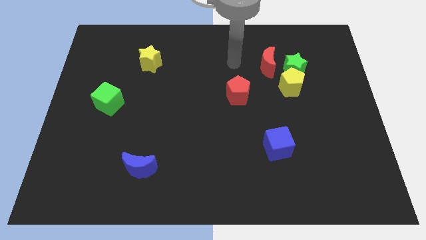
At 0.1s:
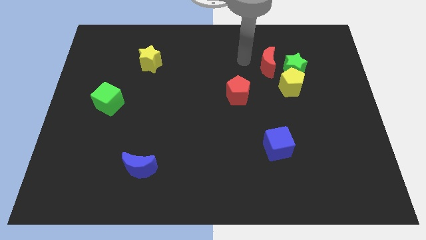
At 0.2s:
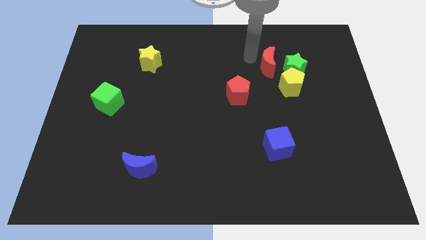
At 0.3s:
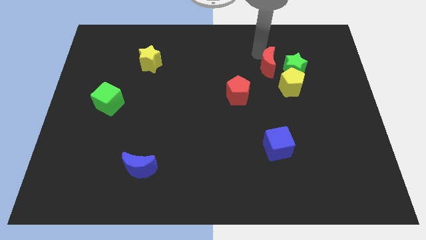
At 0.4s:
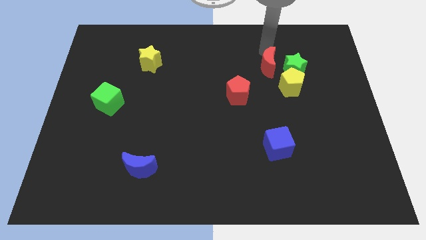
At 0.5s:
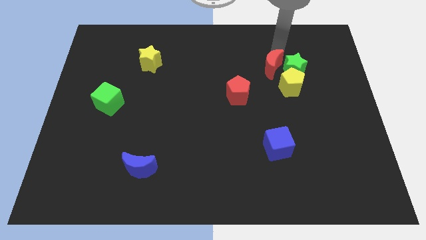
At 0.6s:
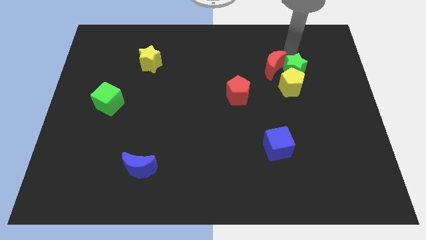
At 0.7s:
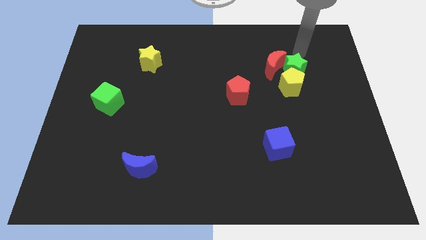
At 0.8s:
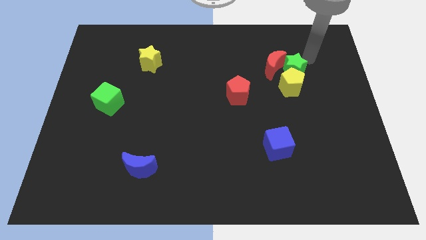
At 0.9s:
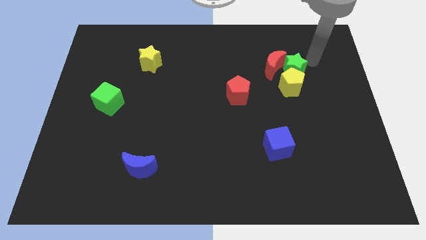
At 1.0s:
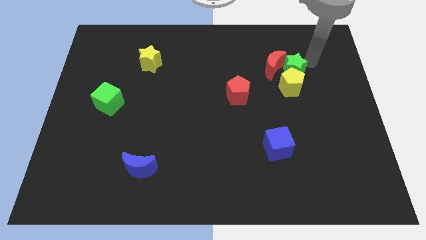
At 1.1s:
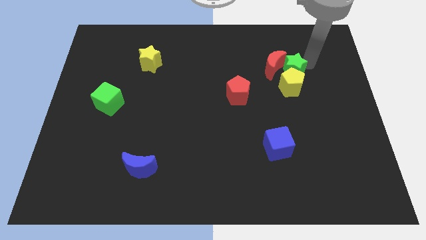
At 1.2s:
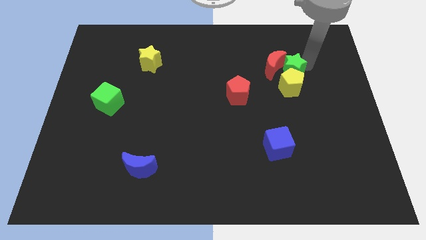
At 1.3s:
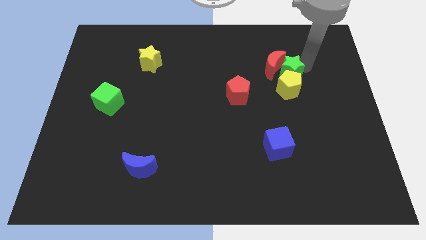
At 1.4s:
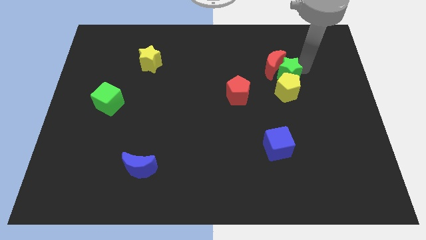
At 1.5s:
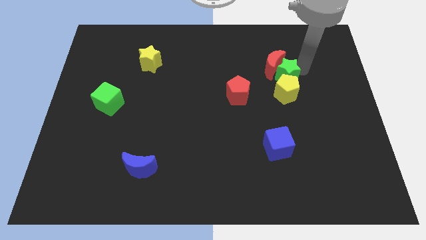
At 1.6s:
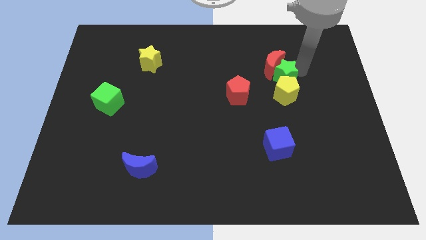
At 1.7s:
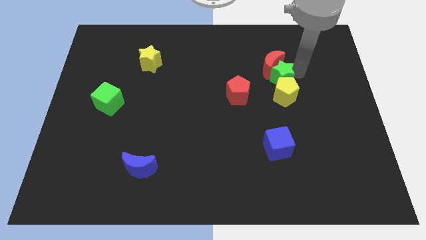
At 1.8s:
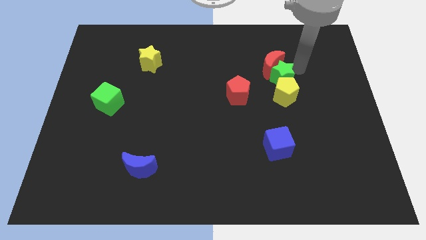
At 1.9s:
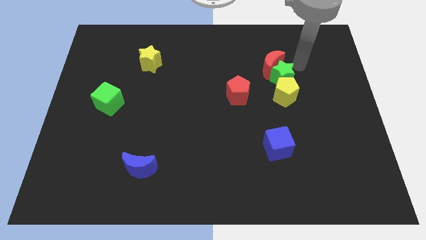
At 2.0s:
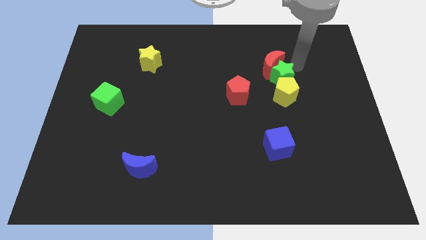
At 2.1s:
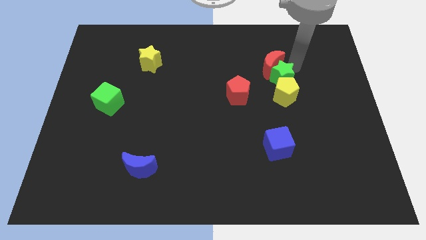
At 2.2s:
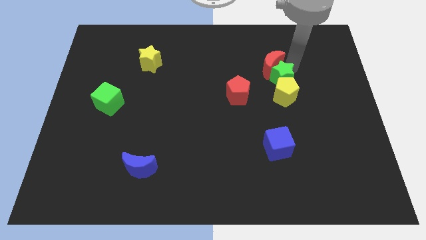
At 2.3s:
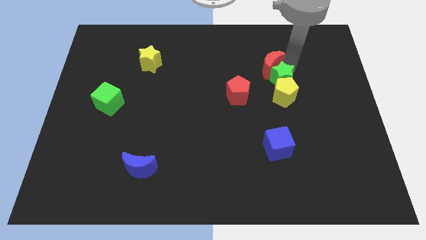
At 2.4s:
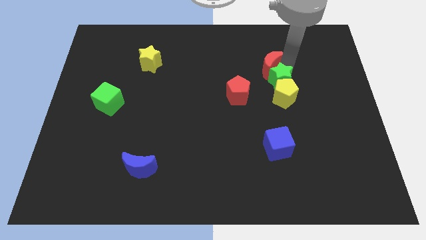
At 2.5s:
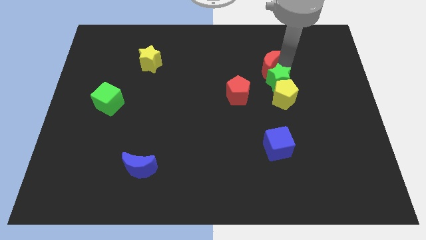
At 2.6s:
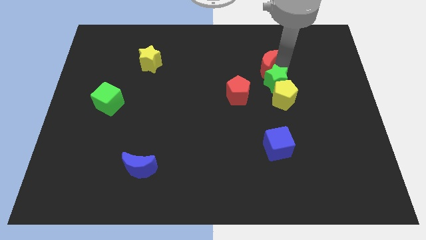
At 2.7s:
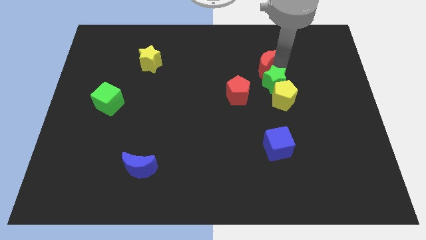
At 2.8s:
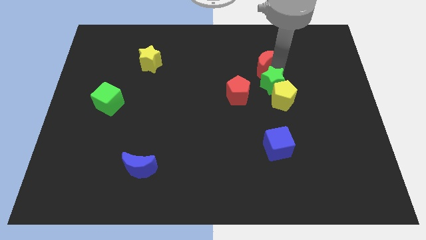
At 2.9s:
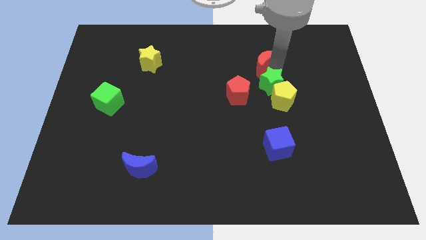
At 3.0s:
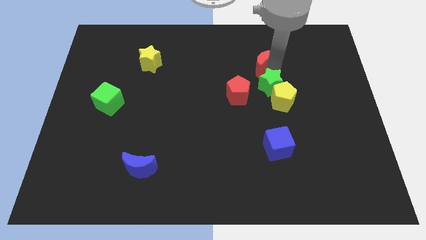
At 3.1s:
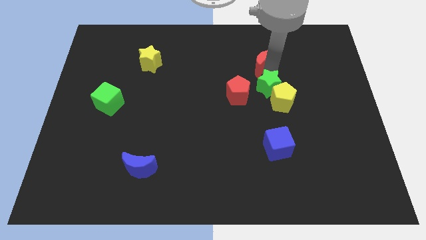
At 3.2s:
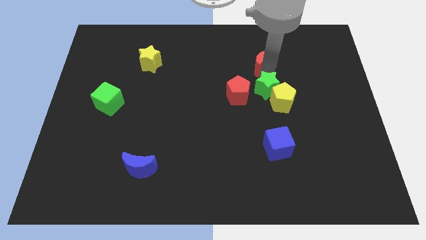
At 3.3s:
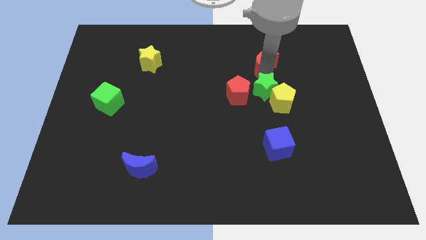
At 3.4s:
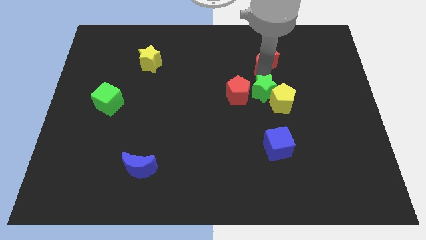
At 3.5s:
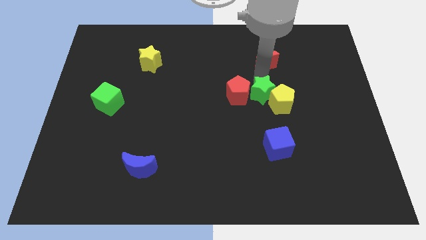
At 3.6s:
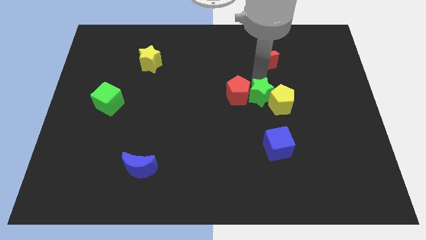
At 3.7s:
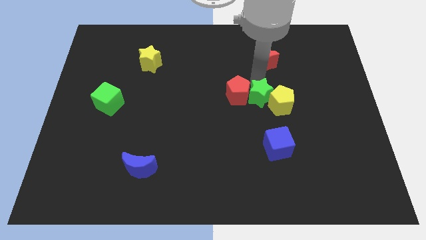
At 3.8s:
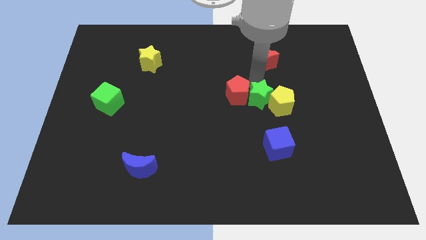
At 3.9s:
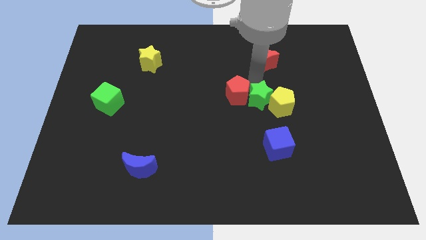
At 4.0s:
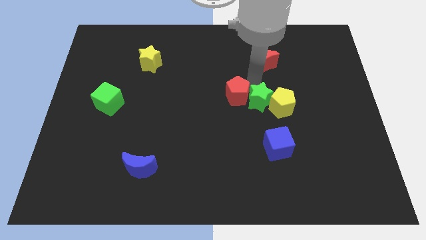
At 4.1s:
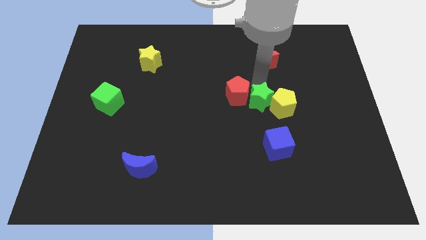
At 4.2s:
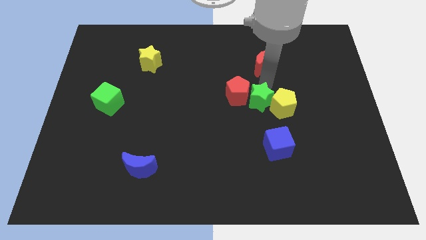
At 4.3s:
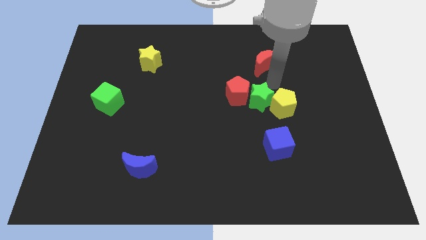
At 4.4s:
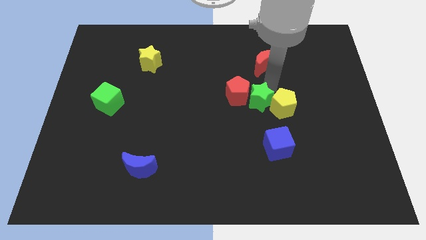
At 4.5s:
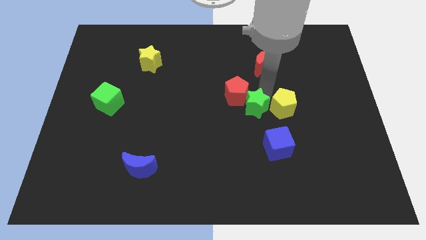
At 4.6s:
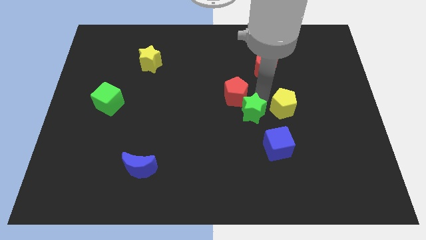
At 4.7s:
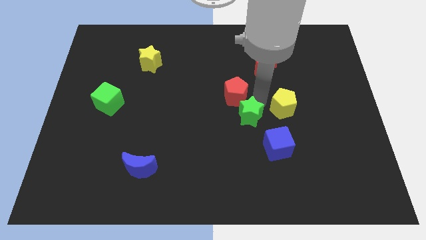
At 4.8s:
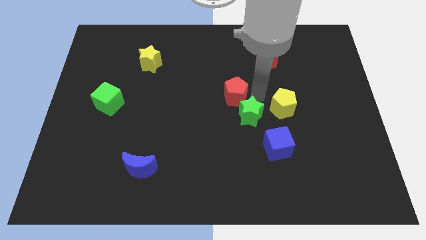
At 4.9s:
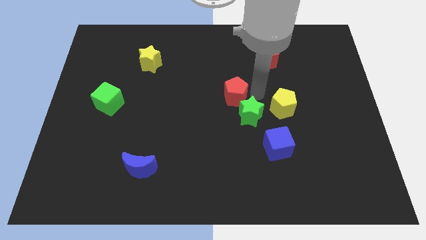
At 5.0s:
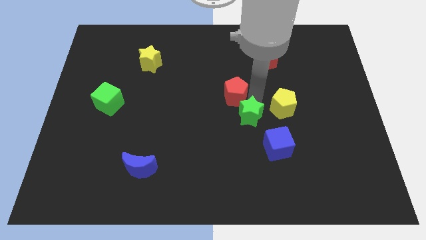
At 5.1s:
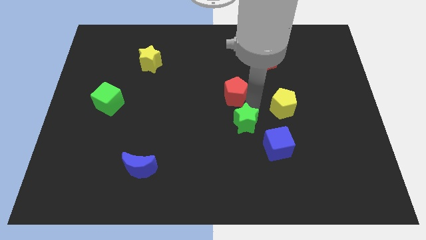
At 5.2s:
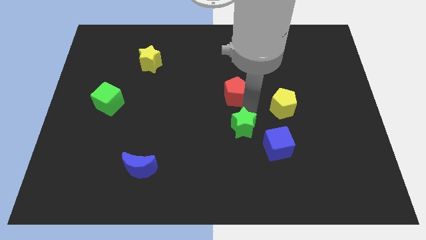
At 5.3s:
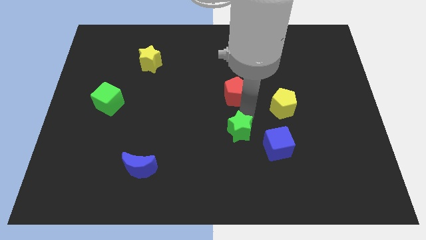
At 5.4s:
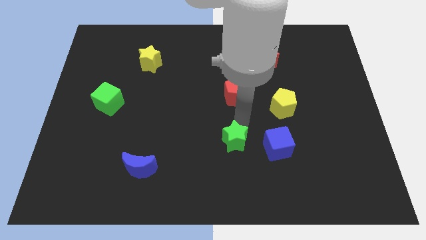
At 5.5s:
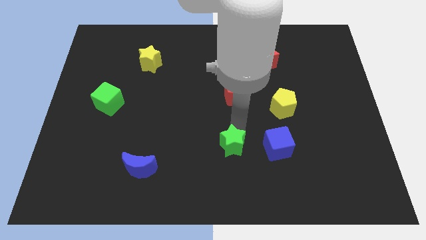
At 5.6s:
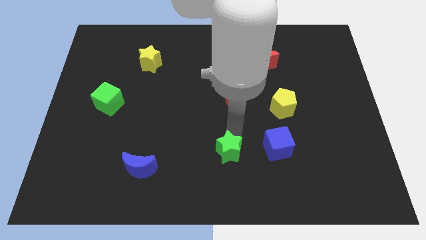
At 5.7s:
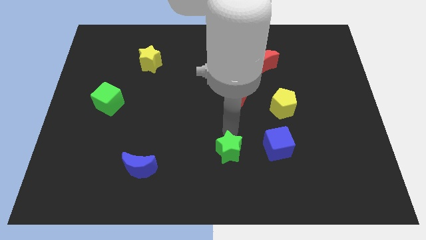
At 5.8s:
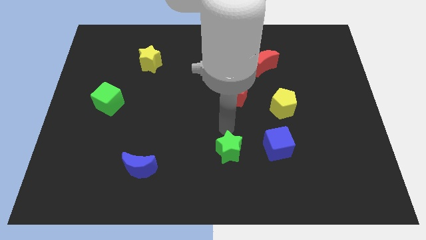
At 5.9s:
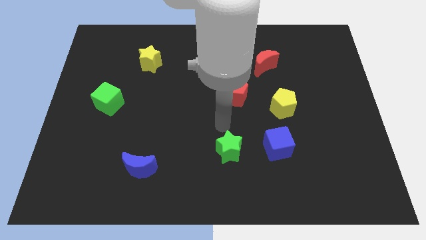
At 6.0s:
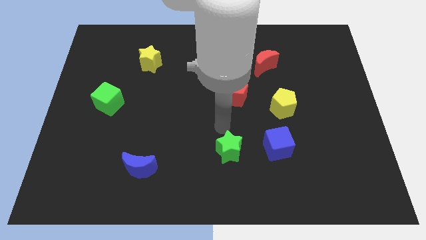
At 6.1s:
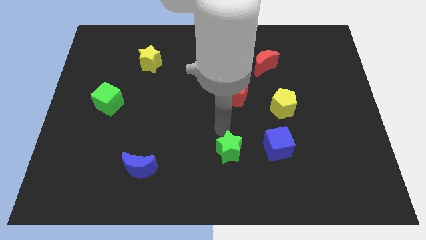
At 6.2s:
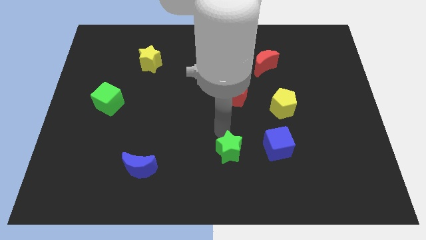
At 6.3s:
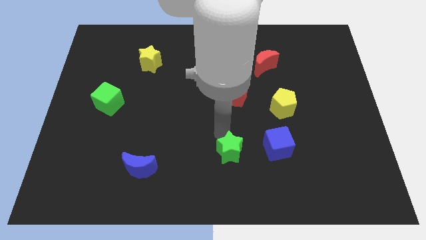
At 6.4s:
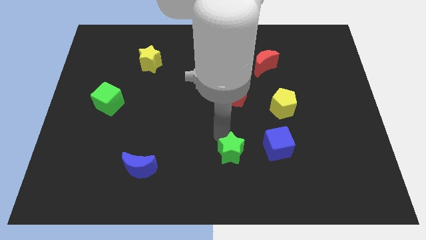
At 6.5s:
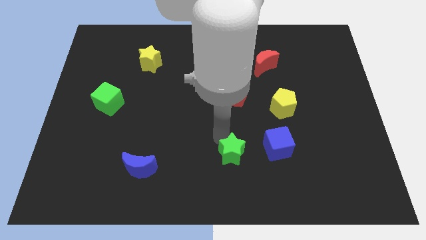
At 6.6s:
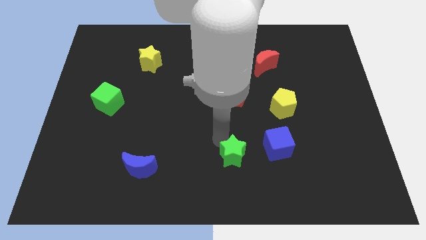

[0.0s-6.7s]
move the green star to the bottom

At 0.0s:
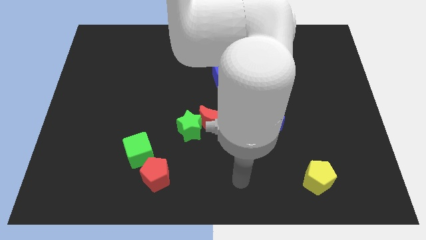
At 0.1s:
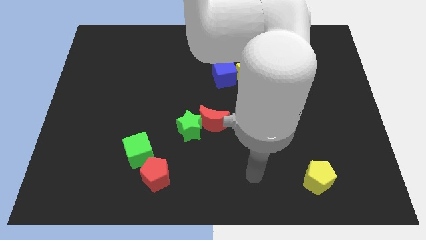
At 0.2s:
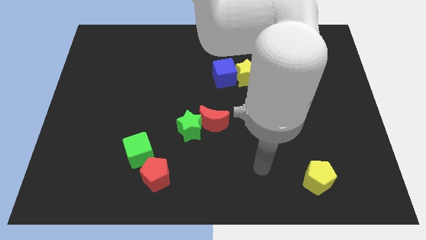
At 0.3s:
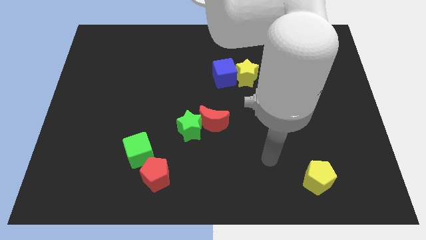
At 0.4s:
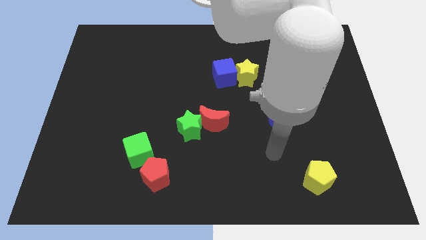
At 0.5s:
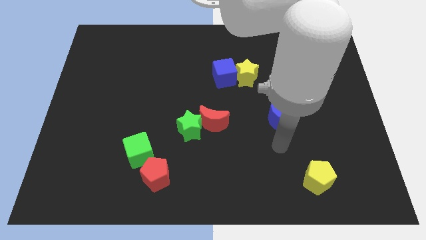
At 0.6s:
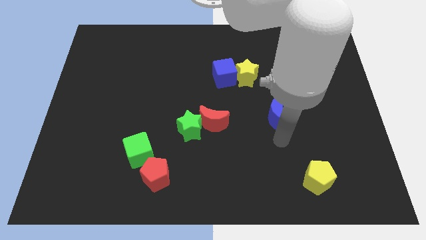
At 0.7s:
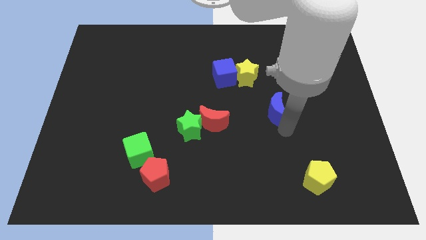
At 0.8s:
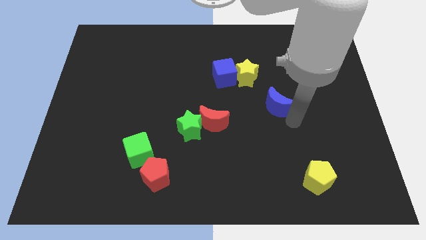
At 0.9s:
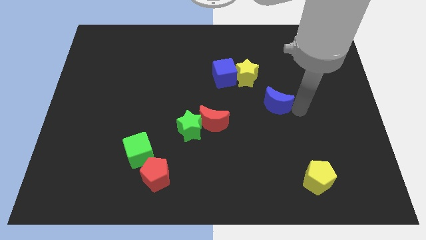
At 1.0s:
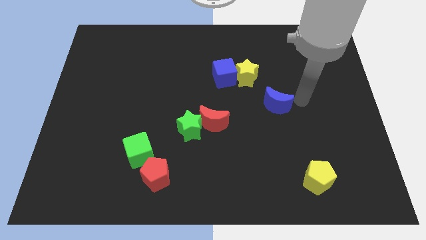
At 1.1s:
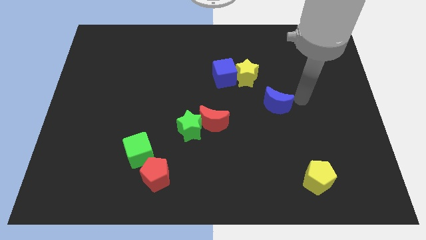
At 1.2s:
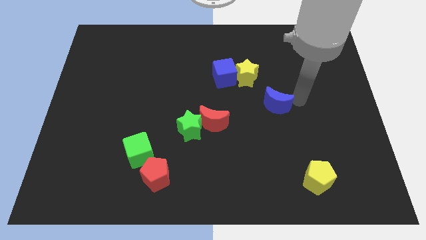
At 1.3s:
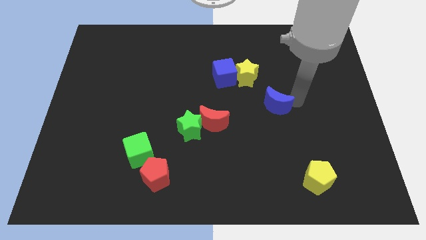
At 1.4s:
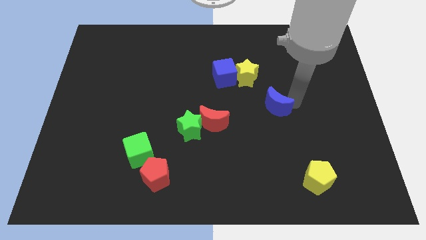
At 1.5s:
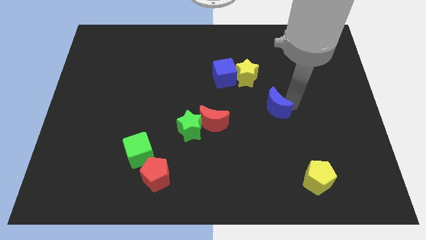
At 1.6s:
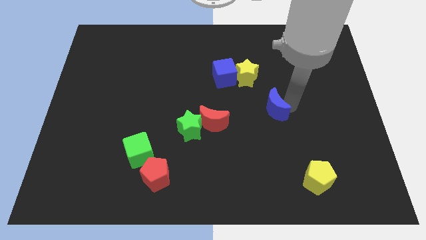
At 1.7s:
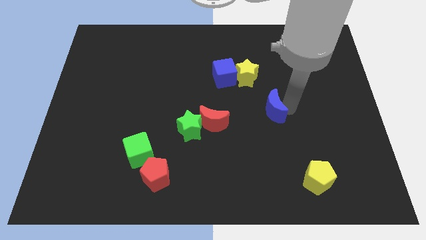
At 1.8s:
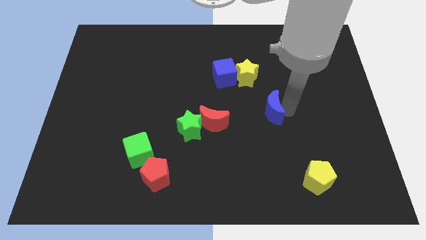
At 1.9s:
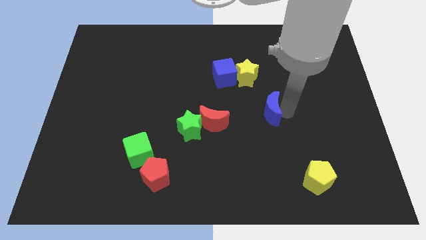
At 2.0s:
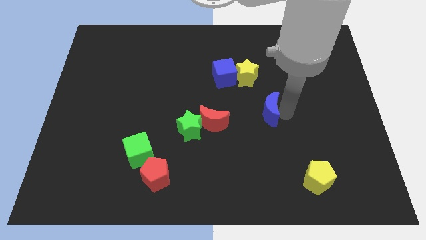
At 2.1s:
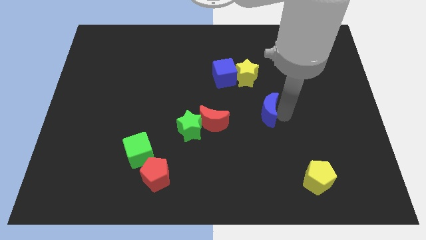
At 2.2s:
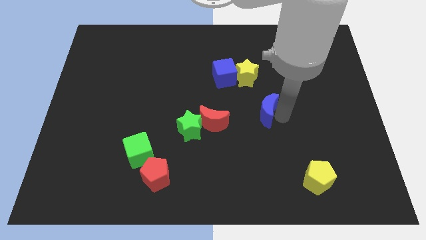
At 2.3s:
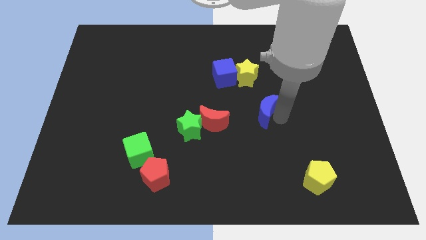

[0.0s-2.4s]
slide the blue moon to the center
